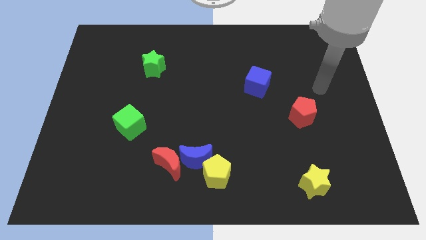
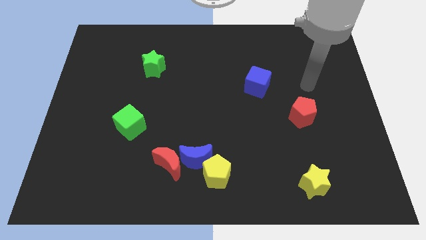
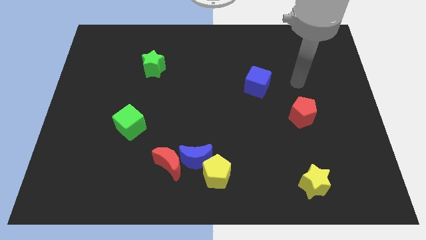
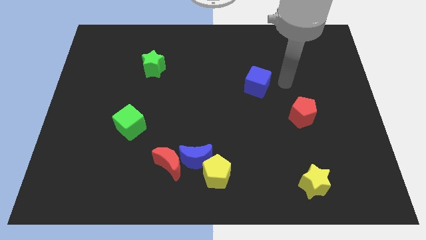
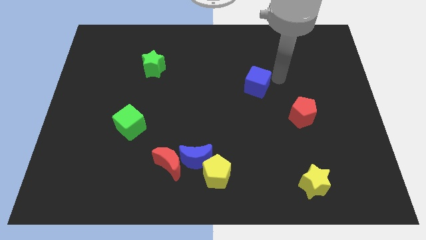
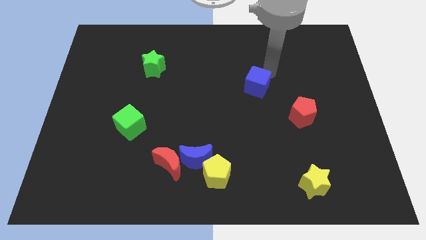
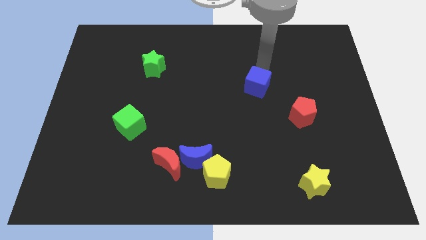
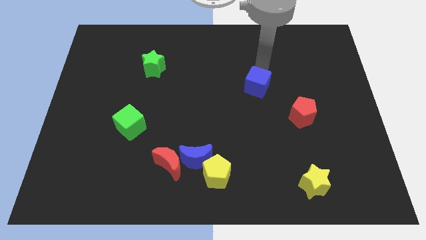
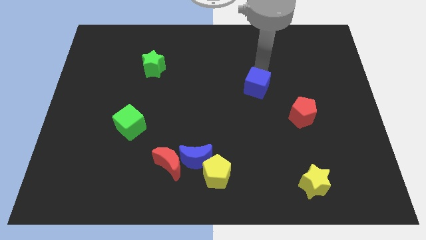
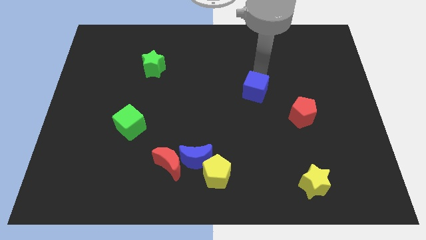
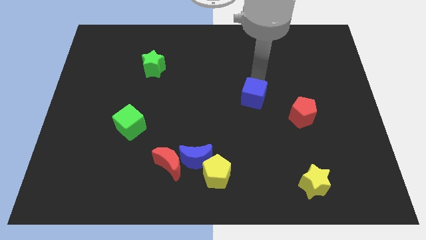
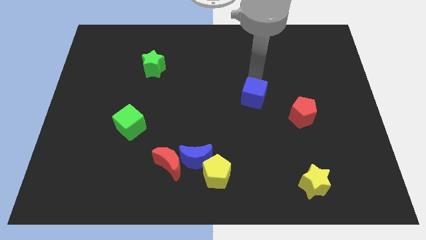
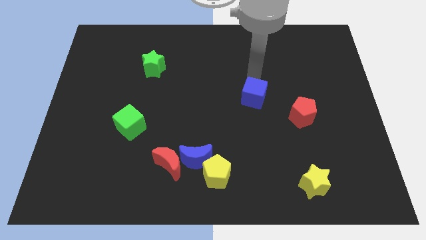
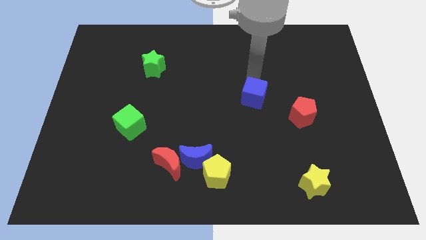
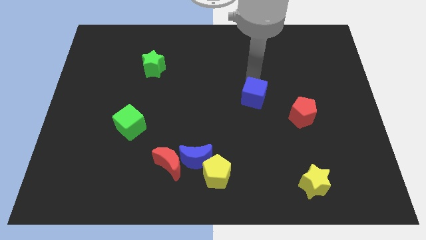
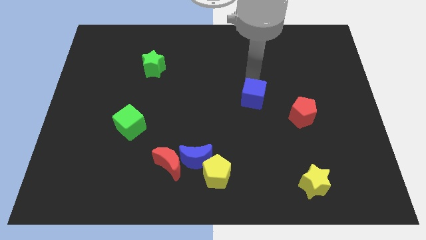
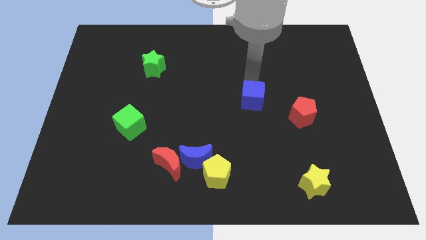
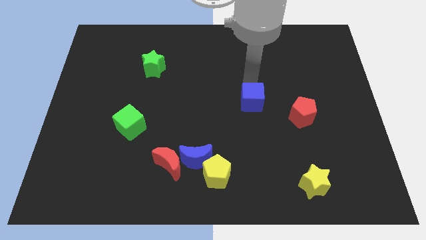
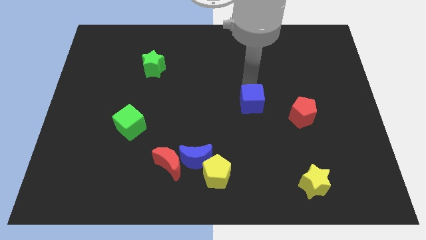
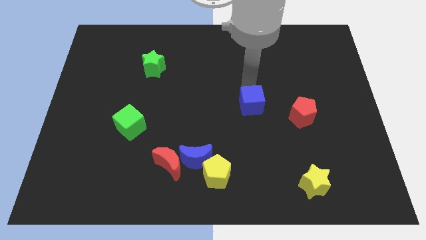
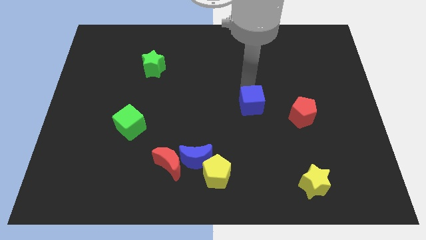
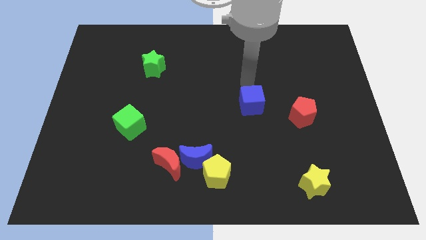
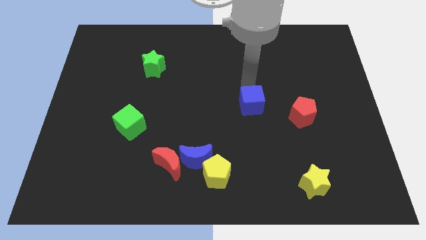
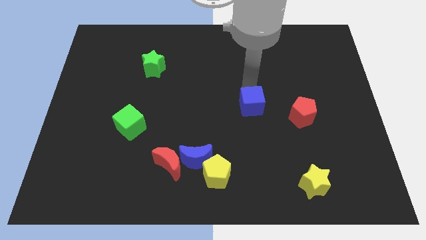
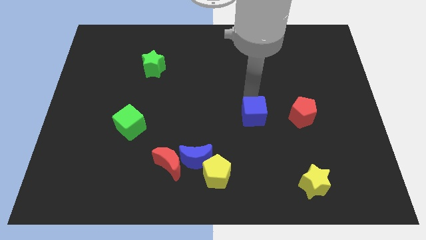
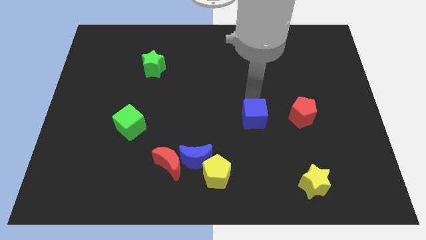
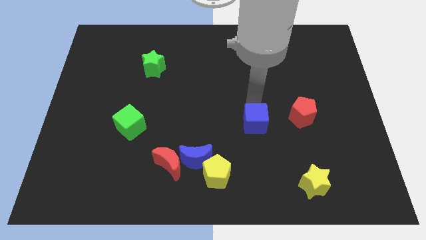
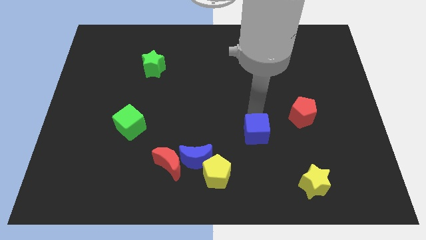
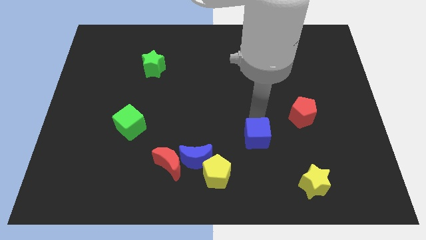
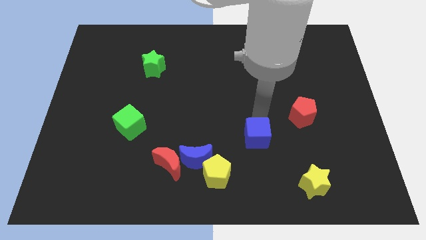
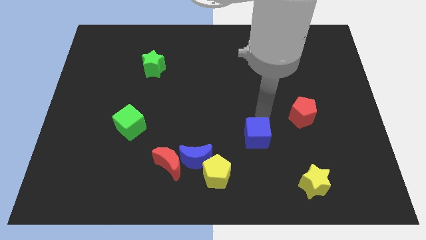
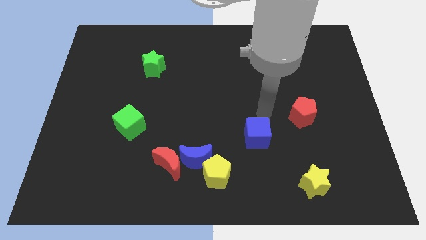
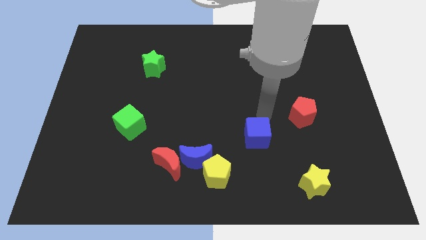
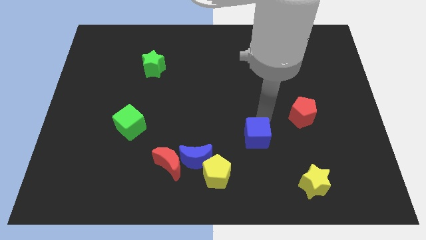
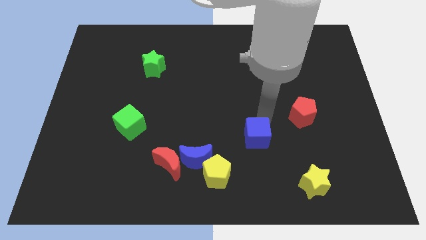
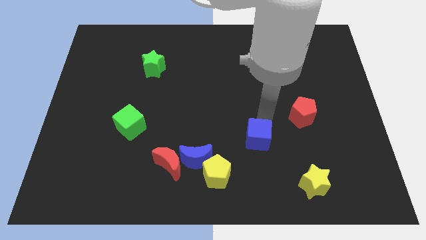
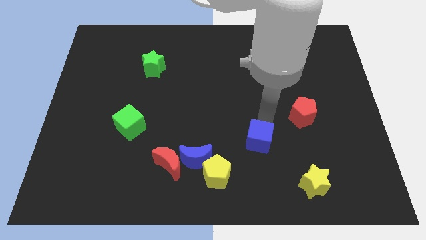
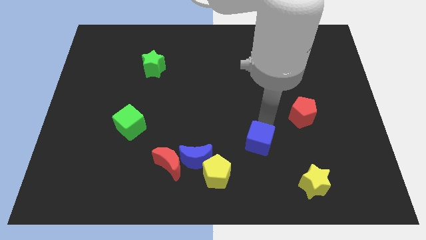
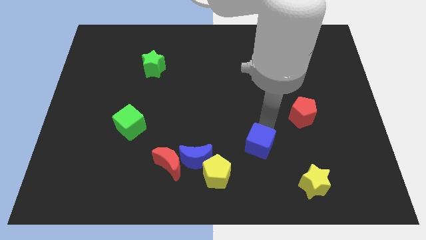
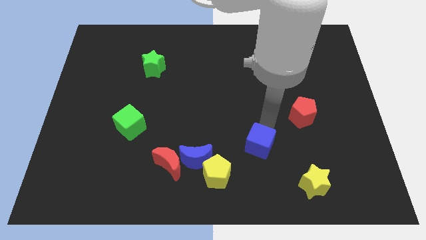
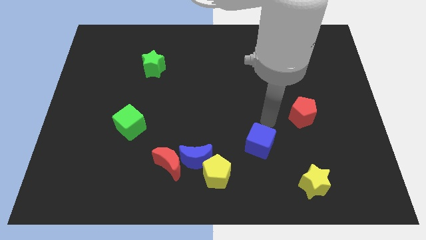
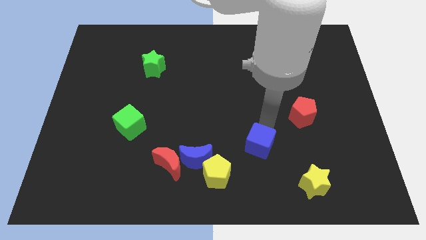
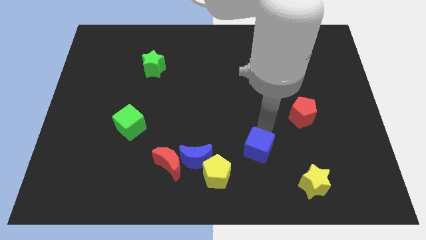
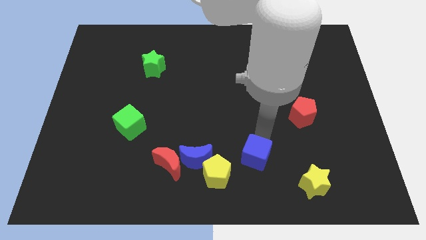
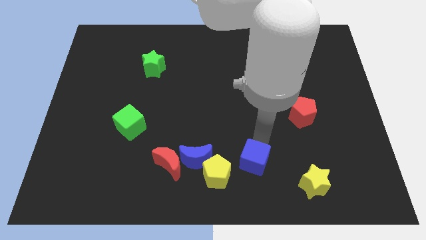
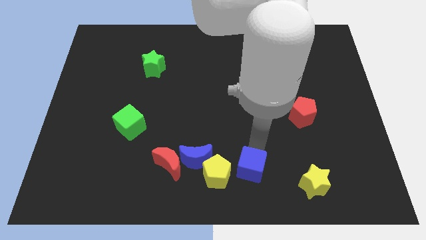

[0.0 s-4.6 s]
slide the blue cube to the left side of the yellow star

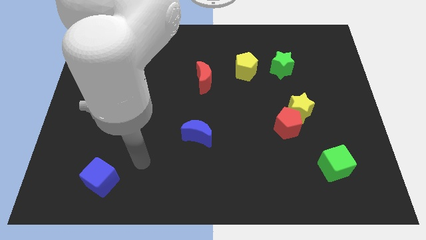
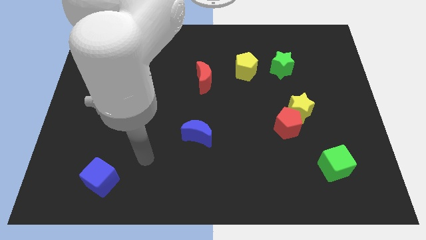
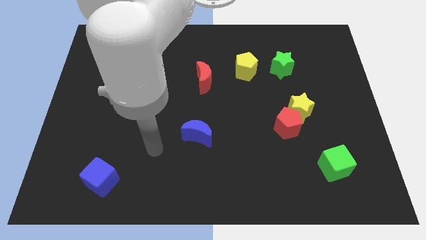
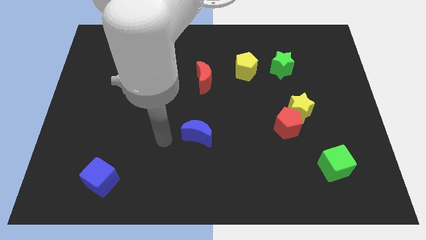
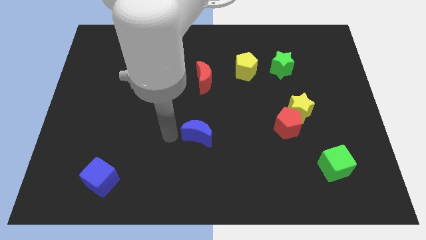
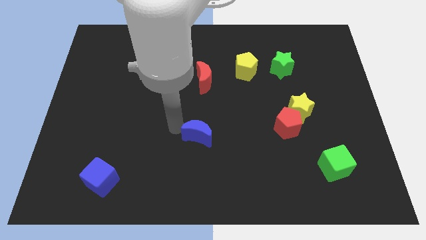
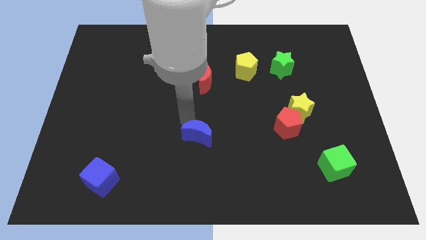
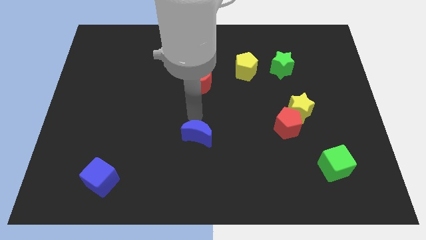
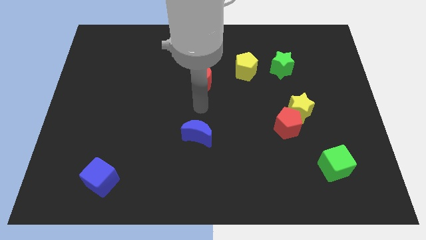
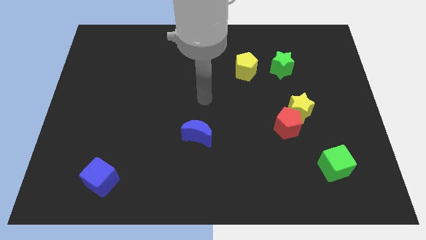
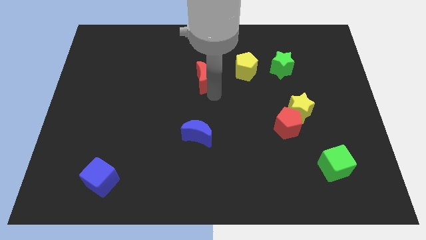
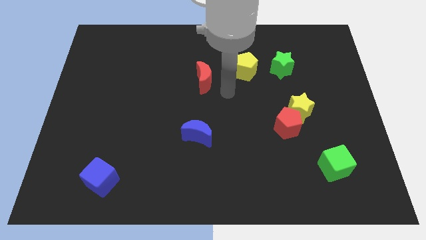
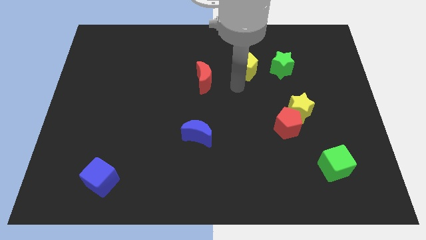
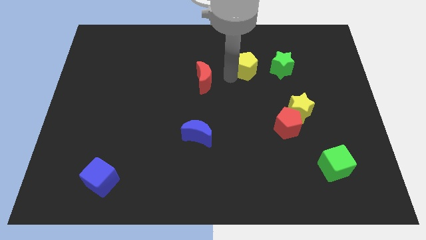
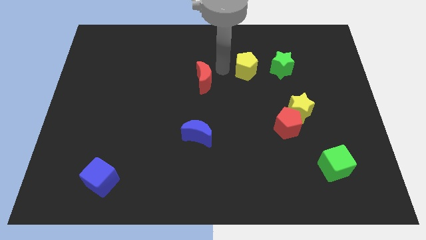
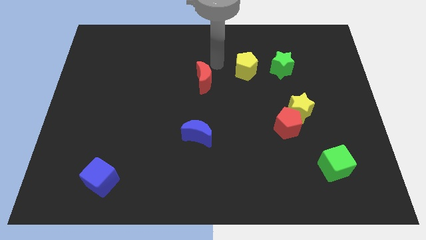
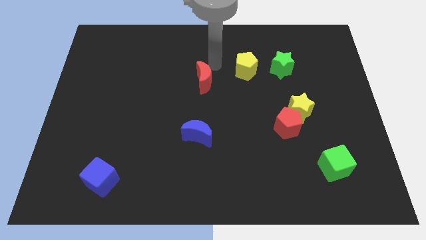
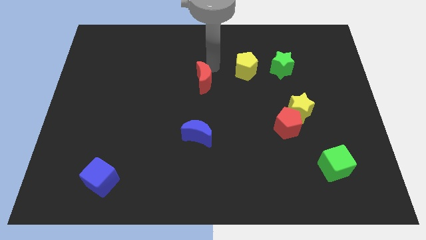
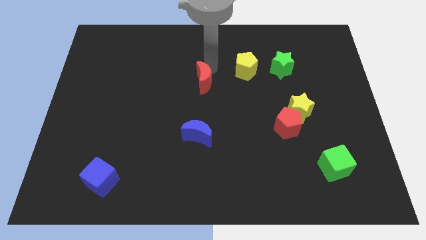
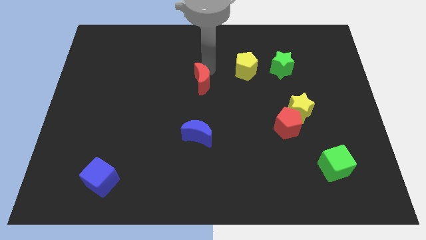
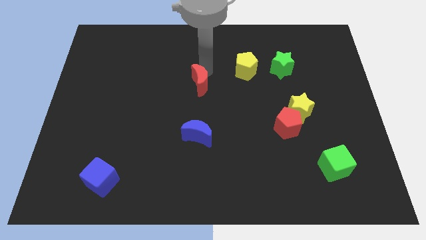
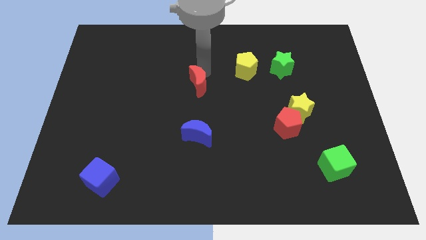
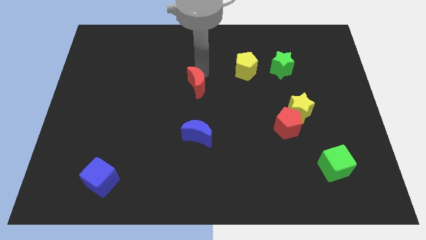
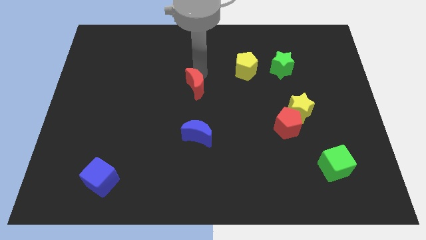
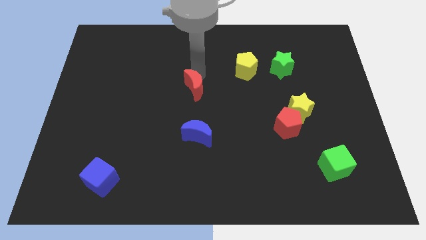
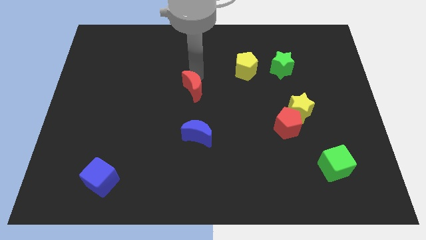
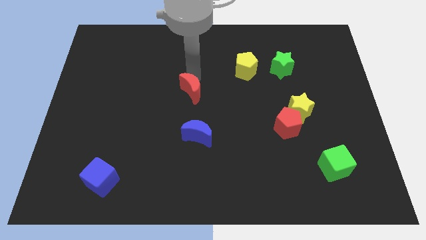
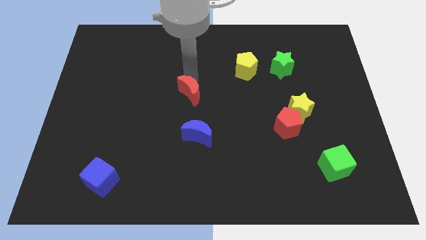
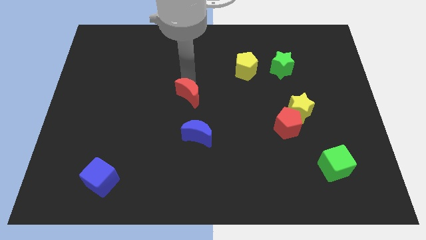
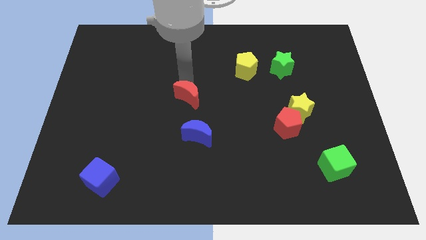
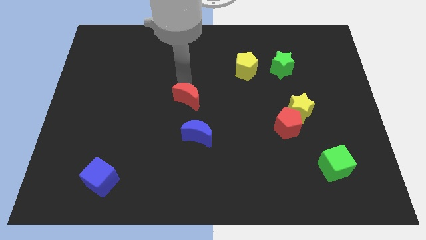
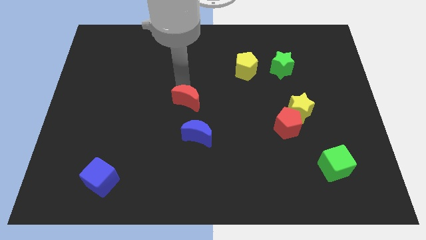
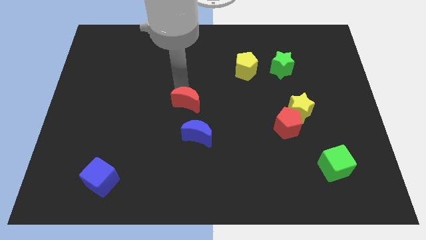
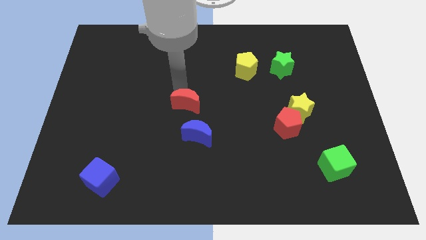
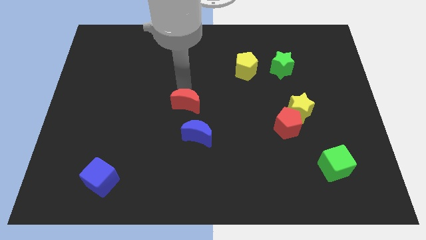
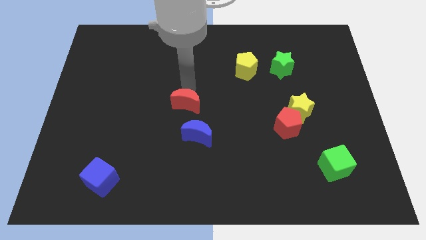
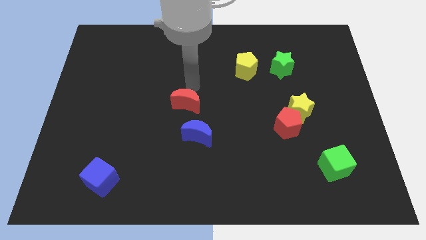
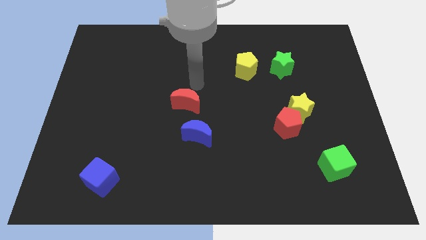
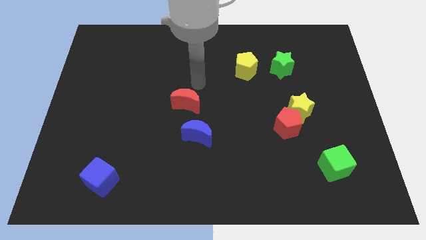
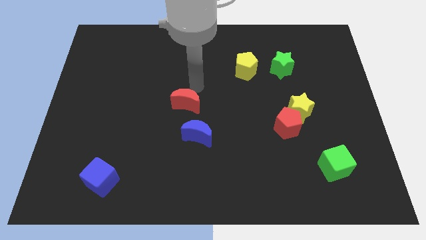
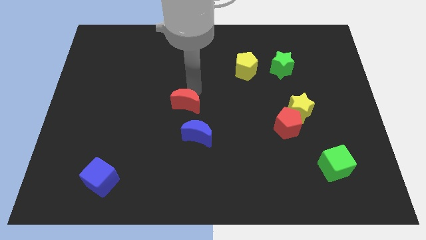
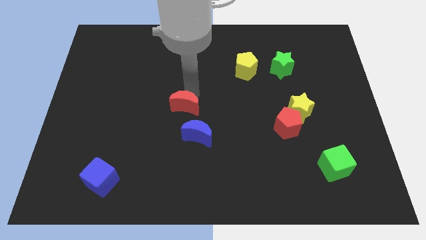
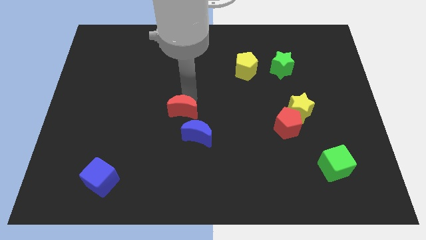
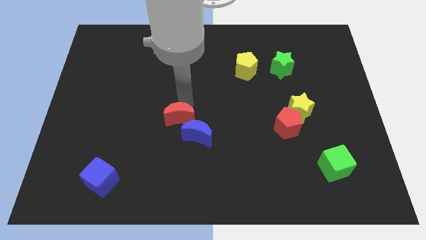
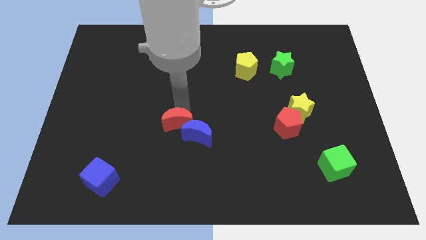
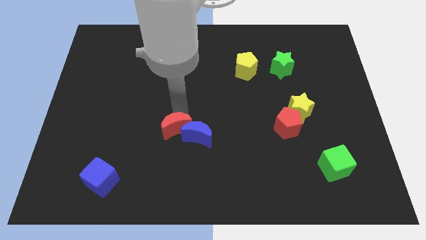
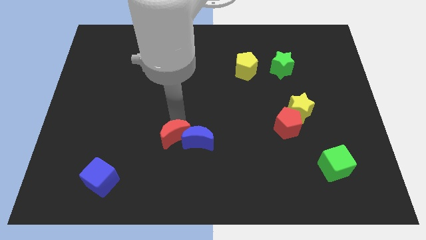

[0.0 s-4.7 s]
slide the red moon to the bottom left of the blue moon
